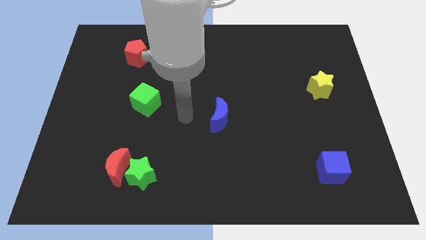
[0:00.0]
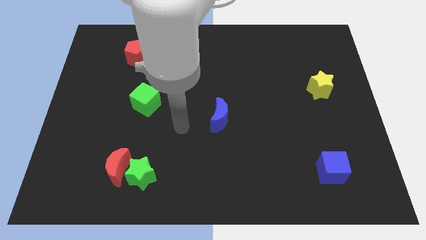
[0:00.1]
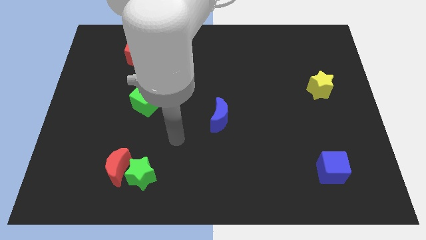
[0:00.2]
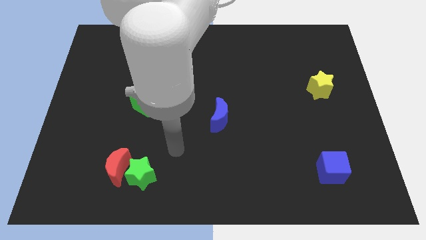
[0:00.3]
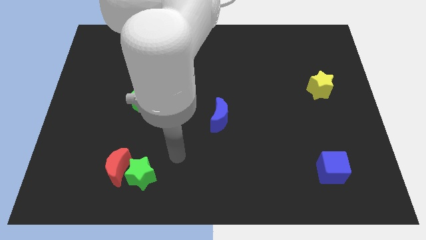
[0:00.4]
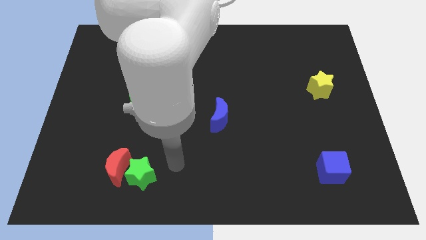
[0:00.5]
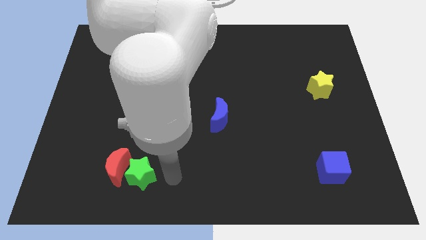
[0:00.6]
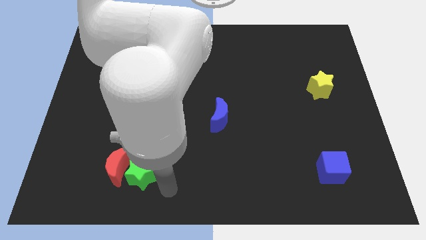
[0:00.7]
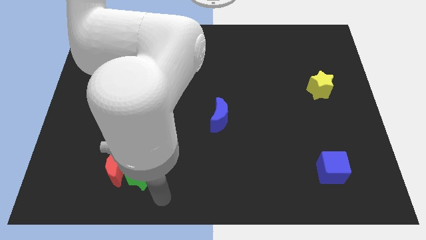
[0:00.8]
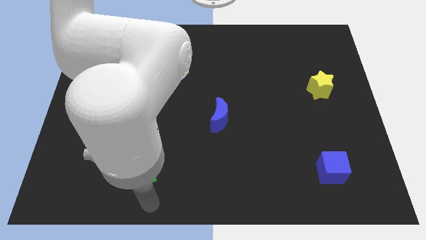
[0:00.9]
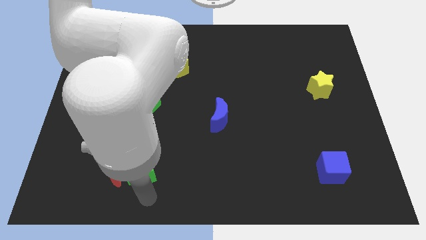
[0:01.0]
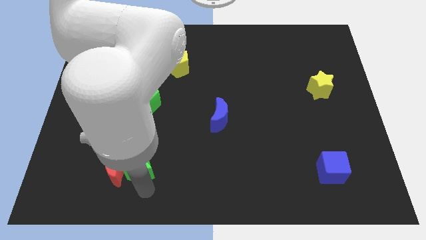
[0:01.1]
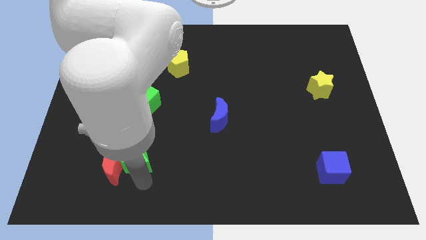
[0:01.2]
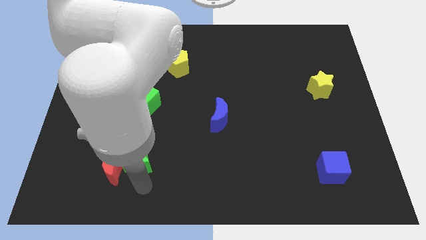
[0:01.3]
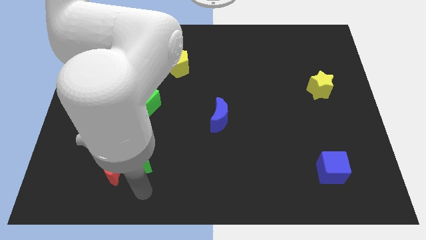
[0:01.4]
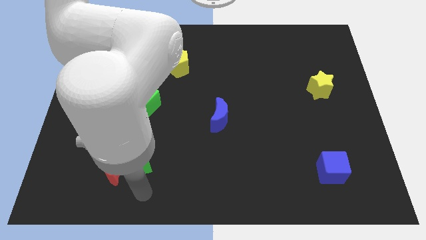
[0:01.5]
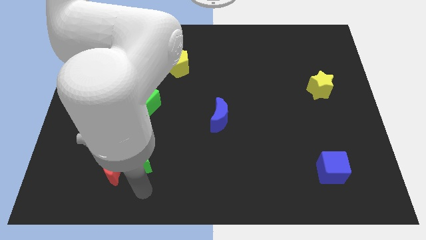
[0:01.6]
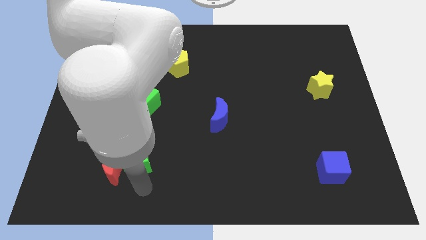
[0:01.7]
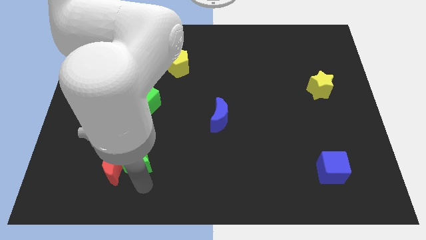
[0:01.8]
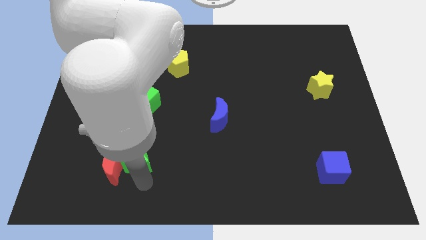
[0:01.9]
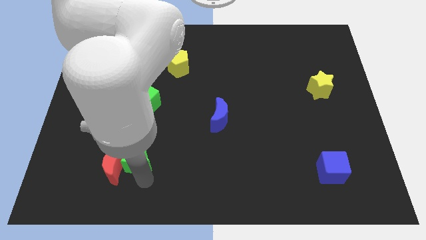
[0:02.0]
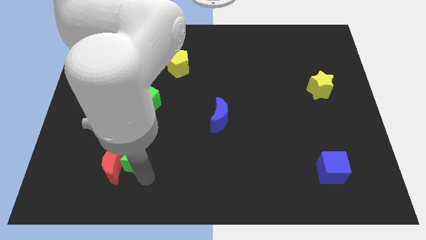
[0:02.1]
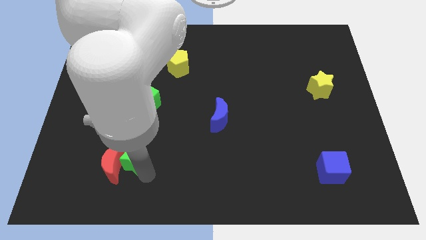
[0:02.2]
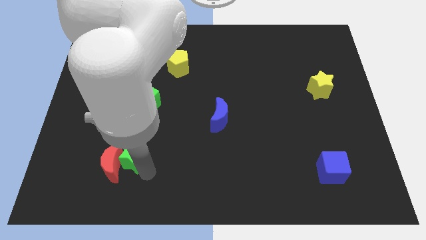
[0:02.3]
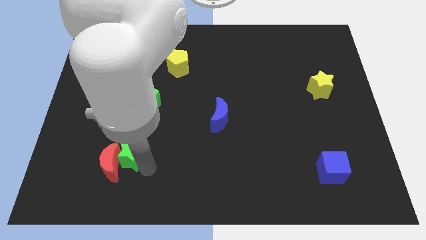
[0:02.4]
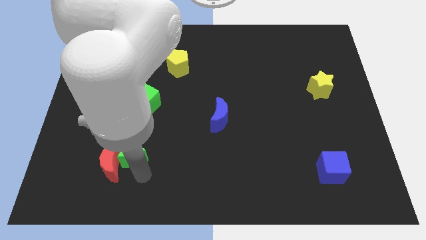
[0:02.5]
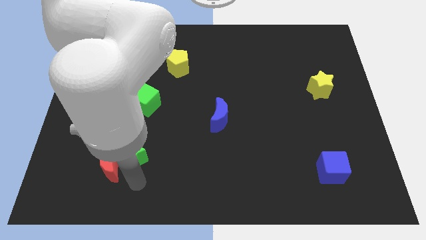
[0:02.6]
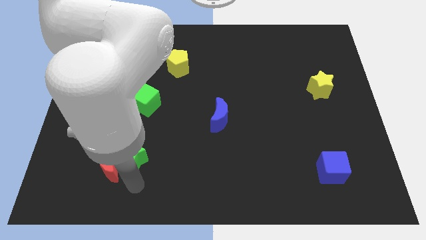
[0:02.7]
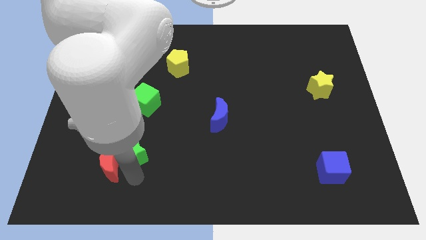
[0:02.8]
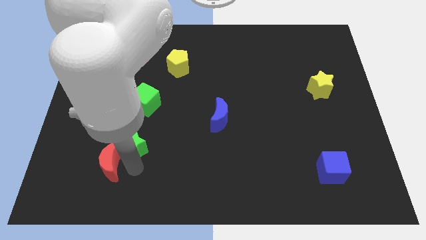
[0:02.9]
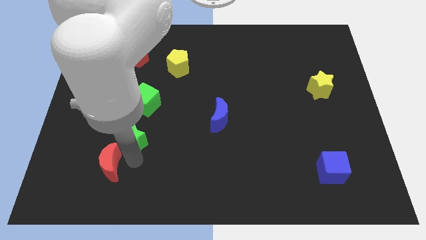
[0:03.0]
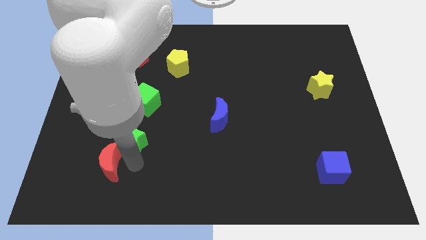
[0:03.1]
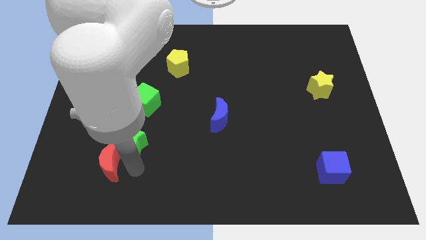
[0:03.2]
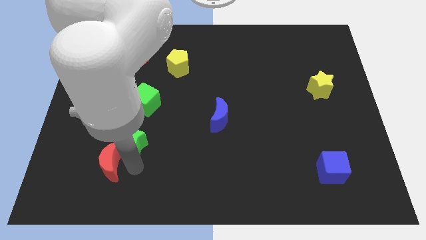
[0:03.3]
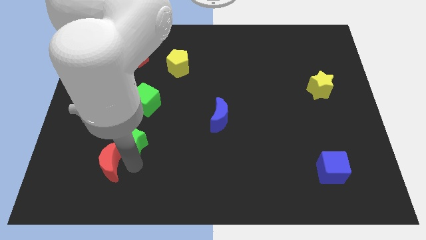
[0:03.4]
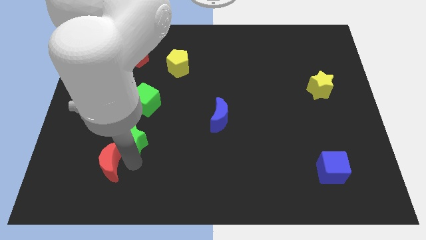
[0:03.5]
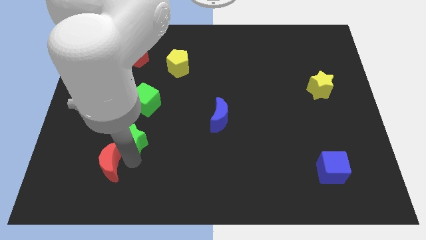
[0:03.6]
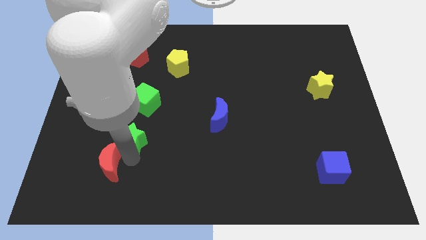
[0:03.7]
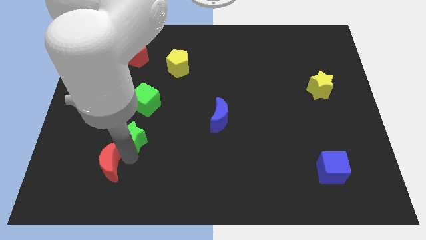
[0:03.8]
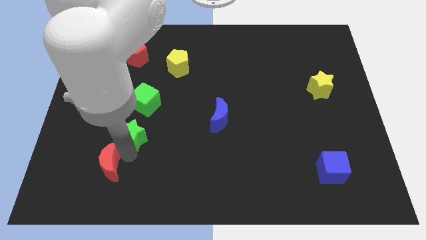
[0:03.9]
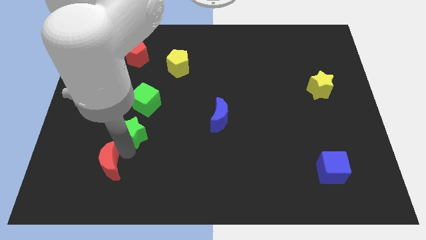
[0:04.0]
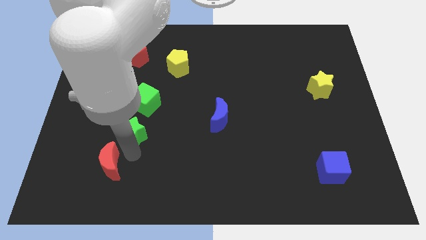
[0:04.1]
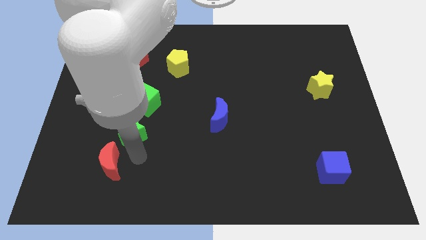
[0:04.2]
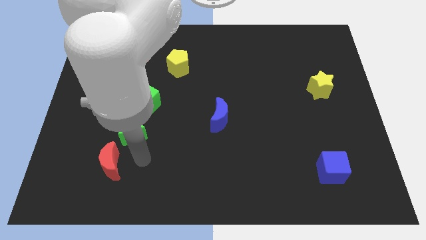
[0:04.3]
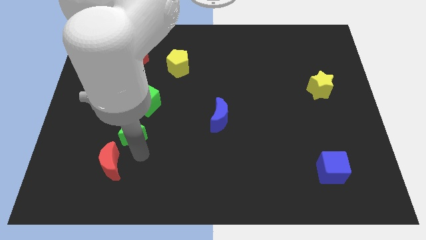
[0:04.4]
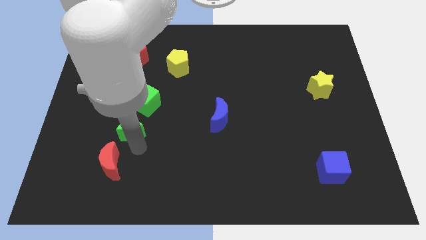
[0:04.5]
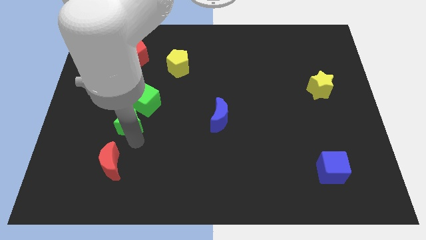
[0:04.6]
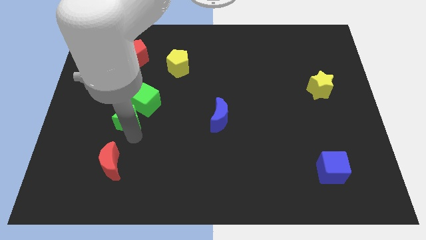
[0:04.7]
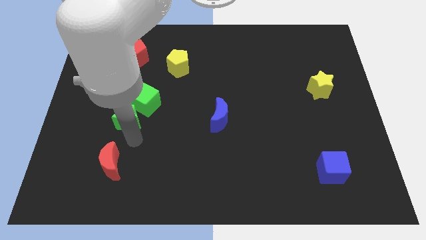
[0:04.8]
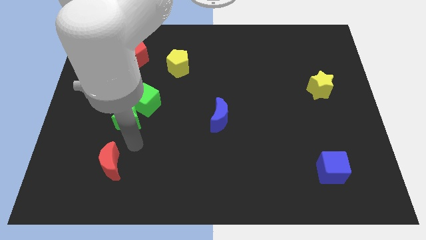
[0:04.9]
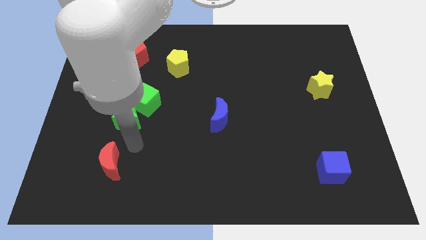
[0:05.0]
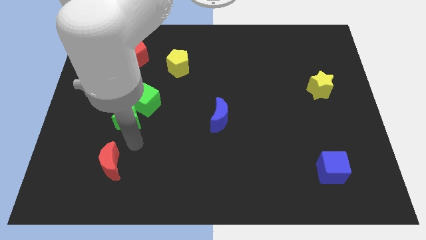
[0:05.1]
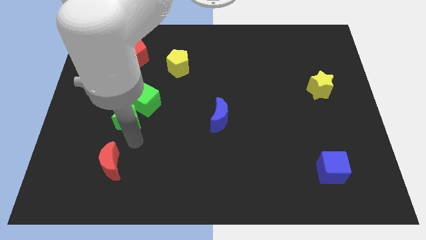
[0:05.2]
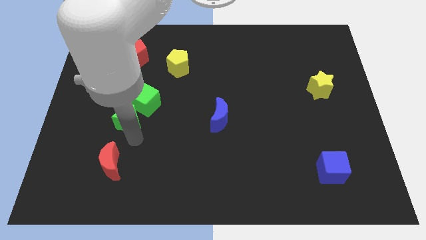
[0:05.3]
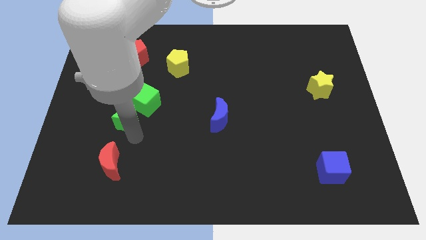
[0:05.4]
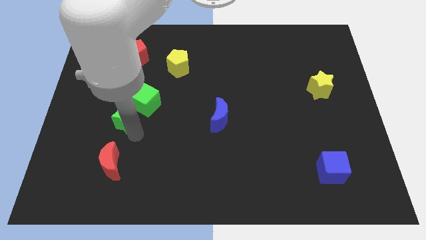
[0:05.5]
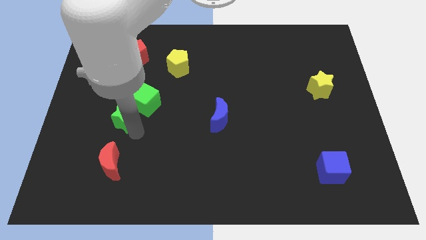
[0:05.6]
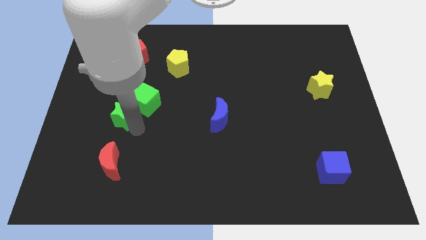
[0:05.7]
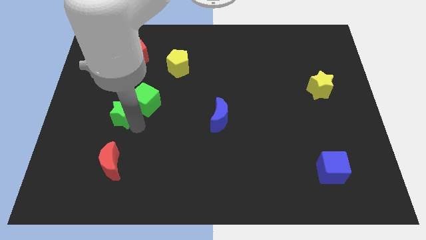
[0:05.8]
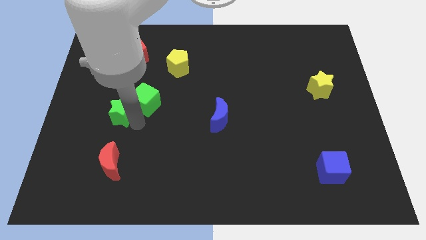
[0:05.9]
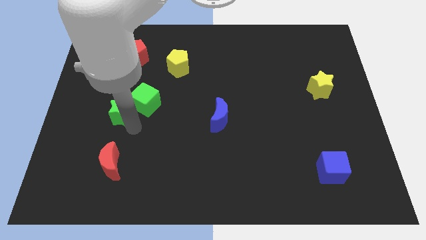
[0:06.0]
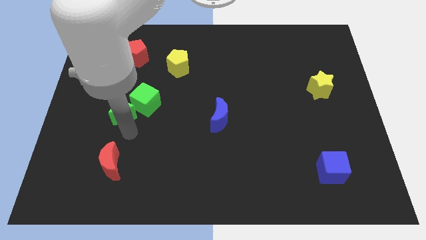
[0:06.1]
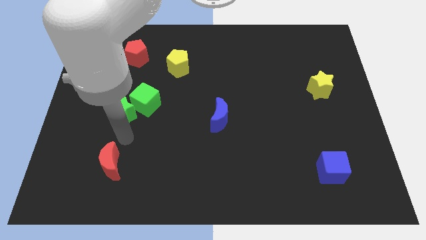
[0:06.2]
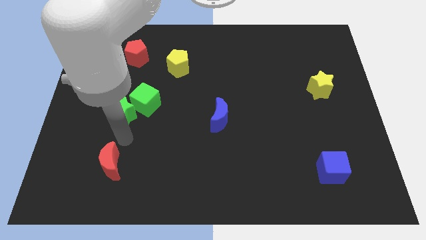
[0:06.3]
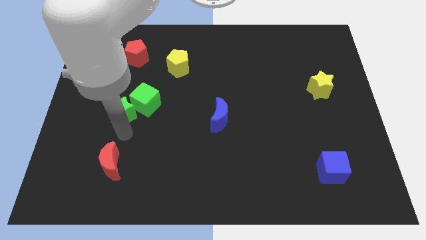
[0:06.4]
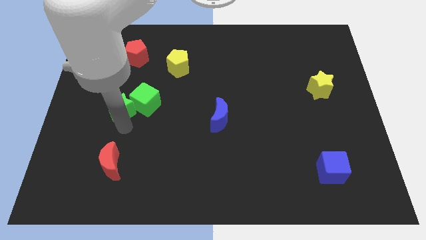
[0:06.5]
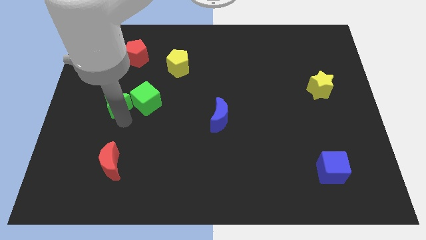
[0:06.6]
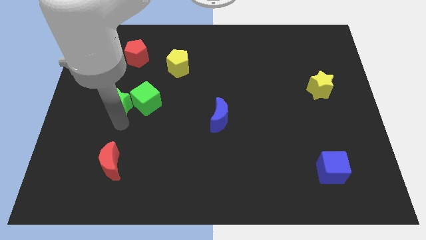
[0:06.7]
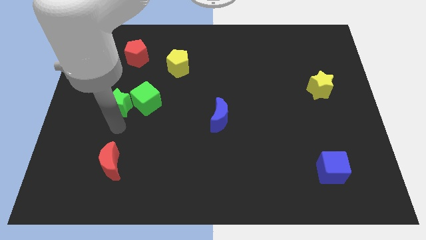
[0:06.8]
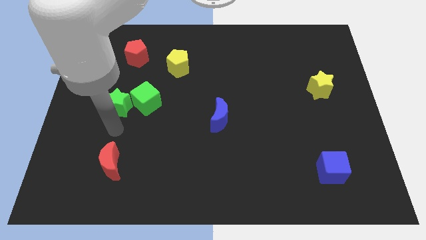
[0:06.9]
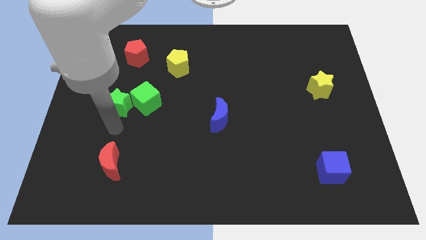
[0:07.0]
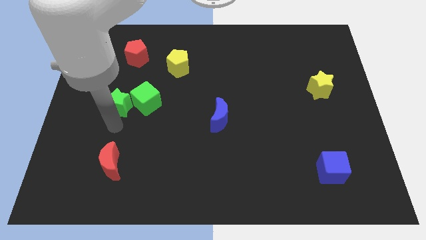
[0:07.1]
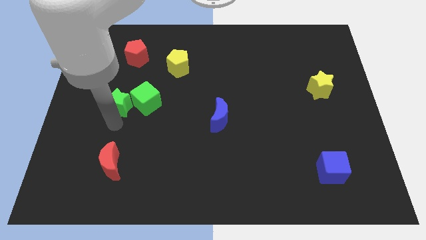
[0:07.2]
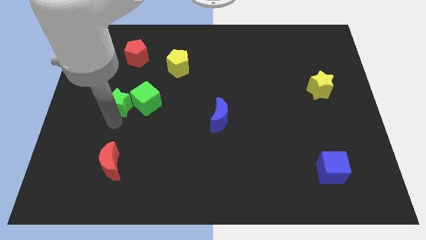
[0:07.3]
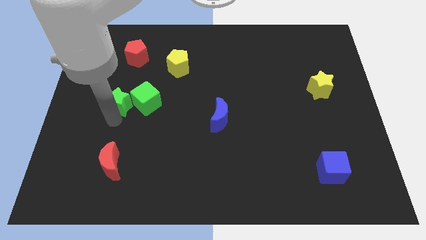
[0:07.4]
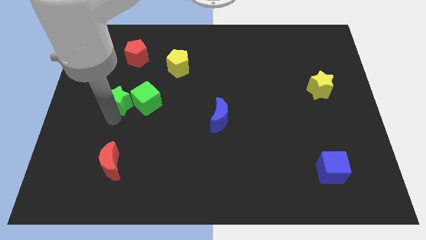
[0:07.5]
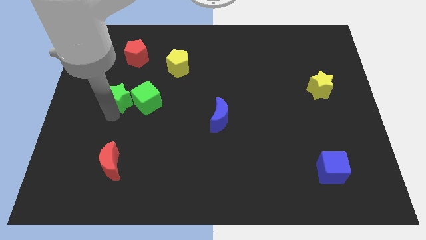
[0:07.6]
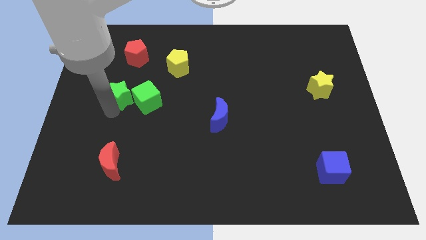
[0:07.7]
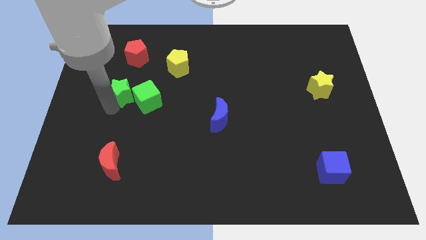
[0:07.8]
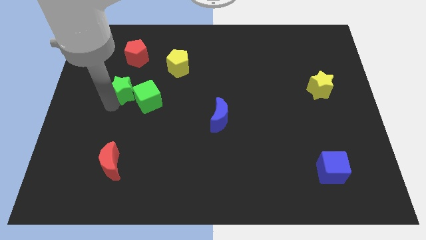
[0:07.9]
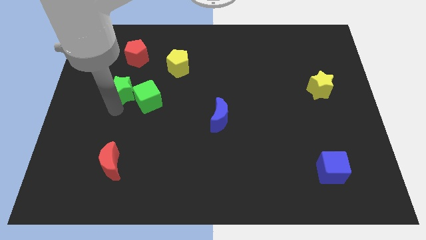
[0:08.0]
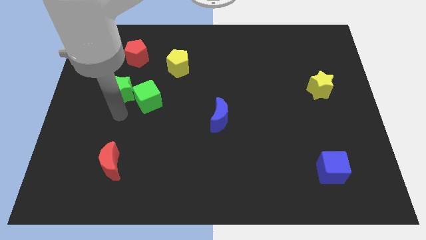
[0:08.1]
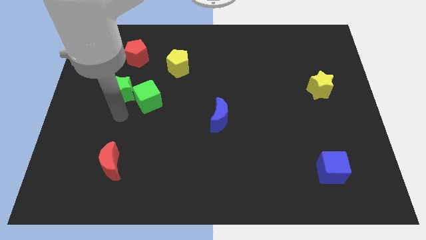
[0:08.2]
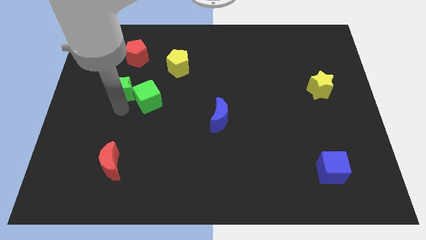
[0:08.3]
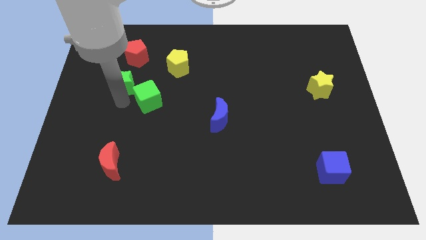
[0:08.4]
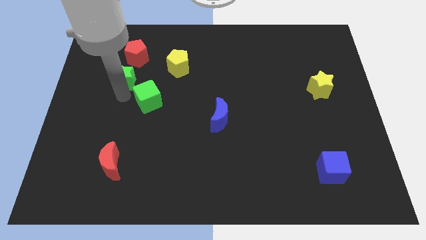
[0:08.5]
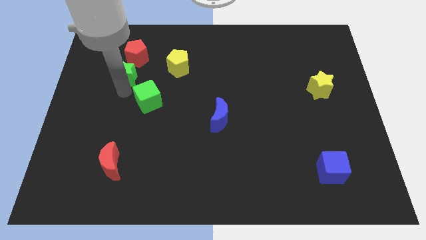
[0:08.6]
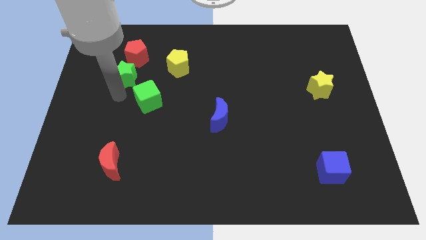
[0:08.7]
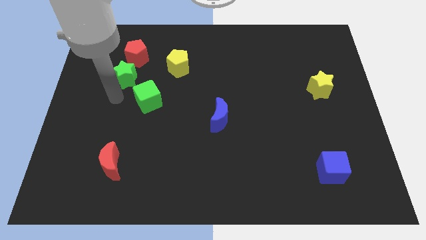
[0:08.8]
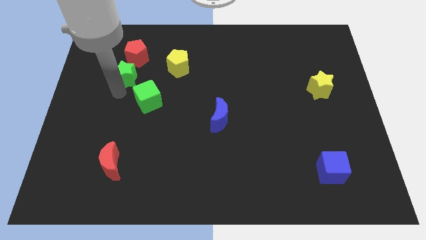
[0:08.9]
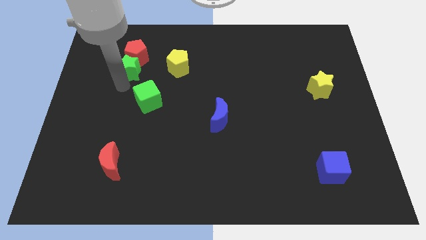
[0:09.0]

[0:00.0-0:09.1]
push the green star next to the red pentagon
